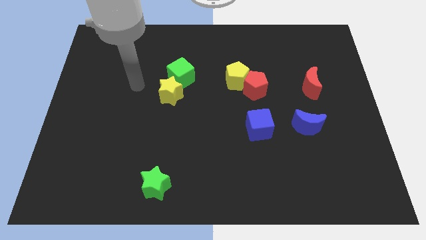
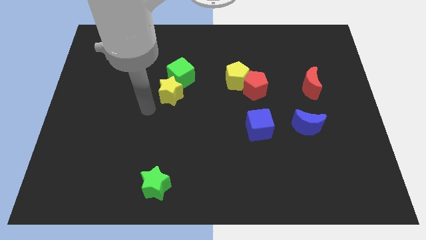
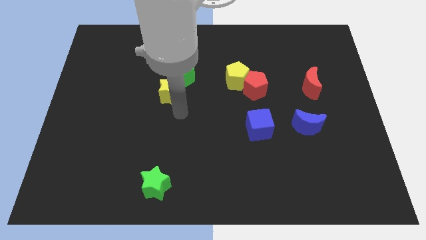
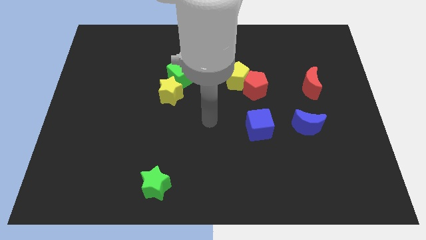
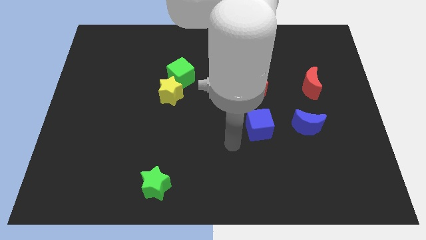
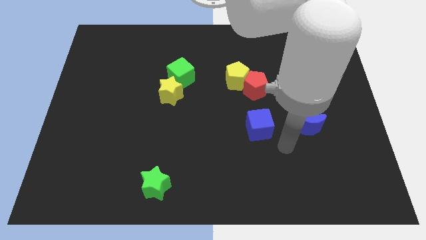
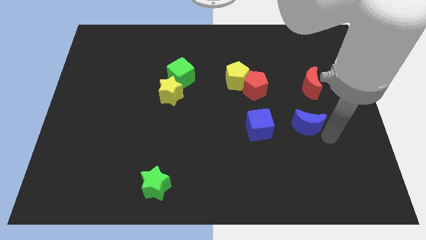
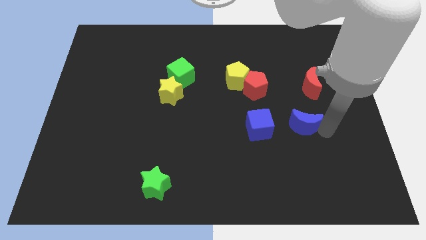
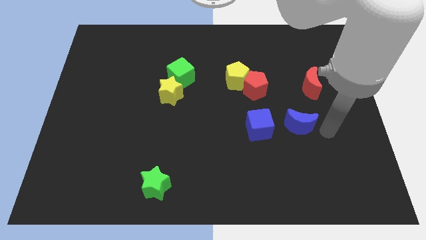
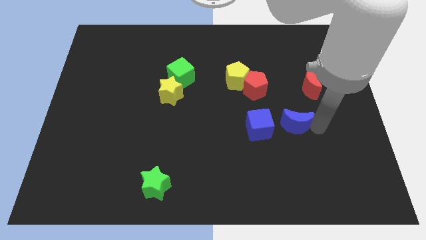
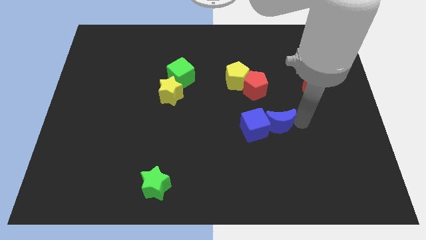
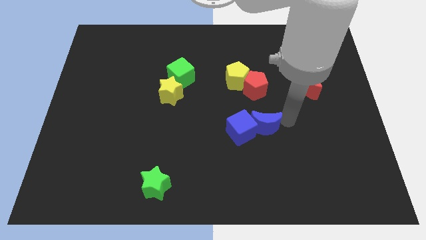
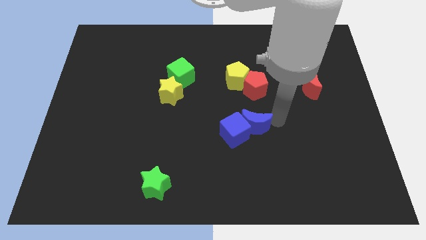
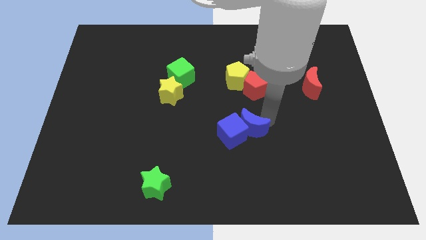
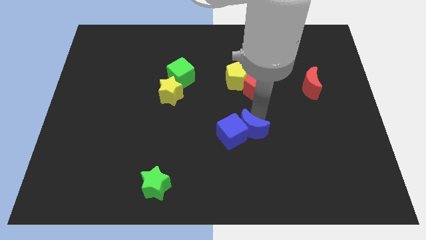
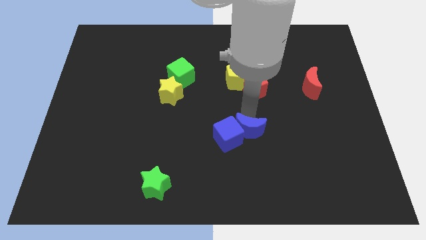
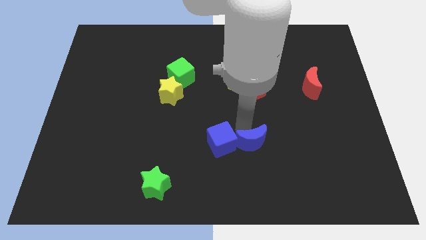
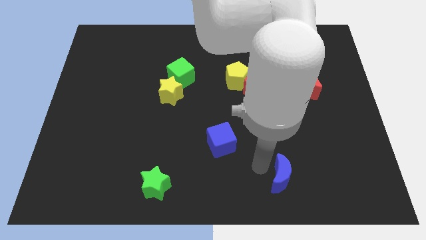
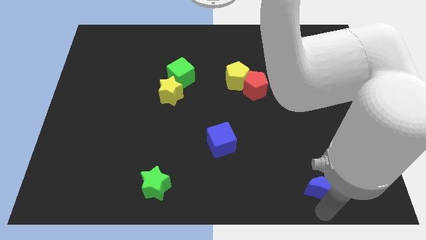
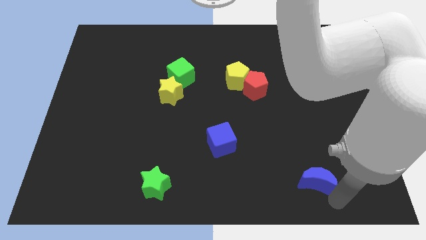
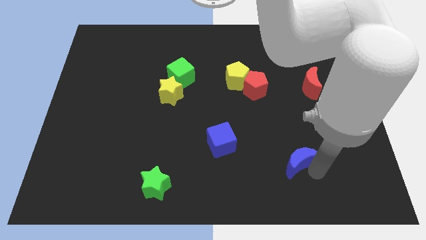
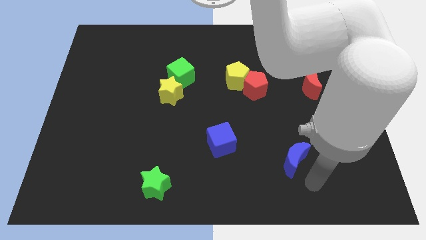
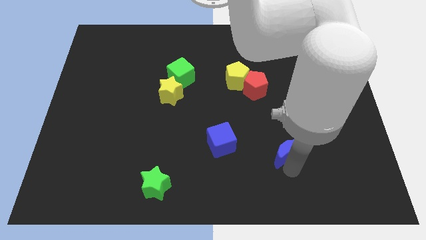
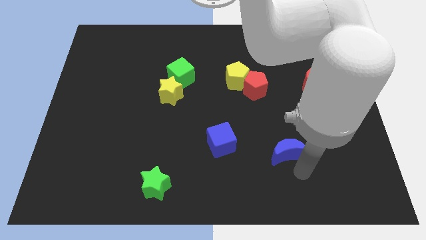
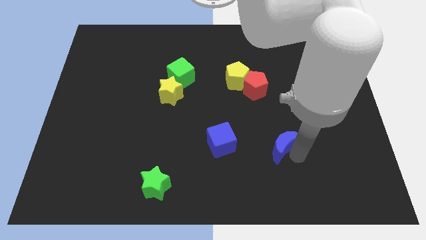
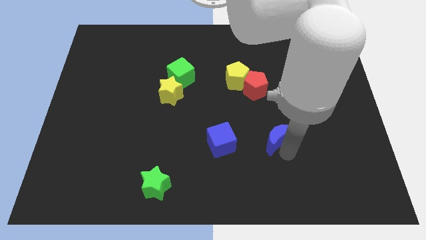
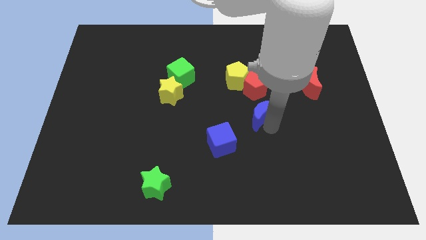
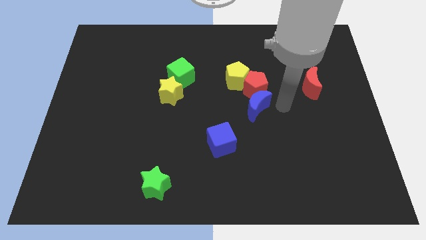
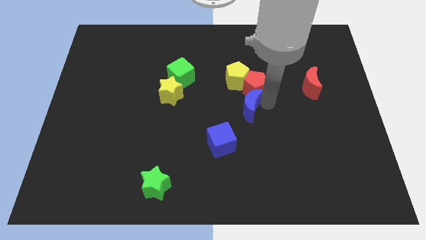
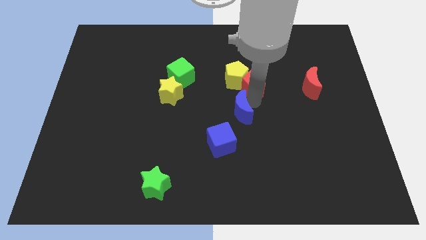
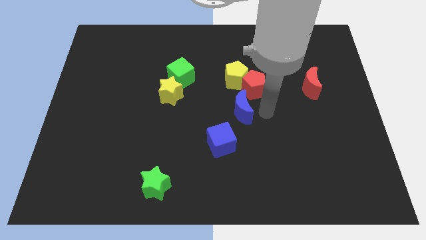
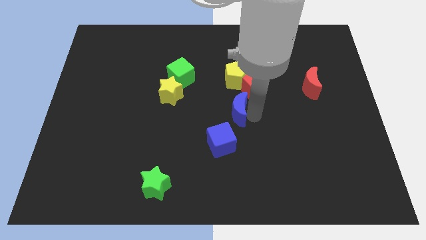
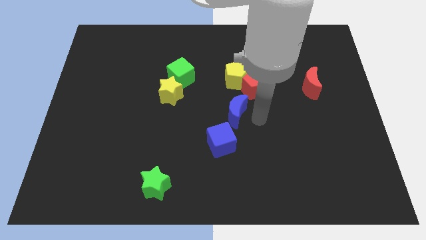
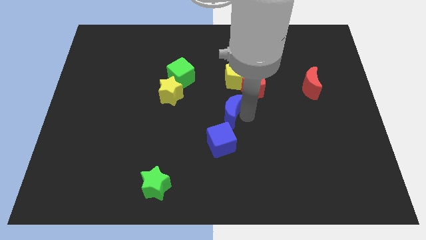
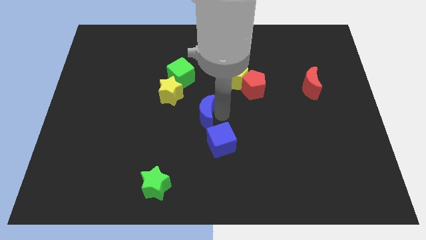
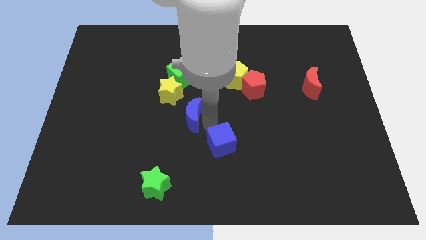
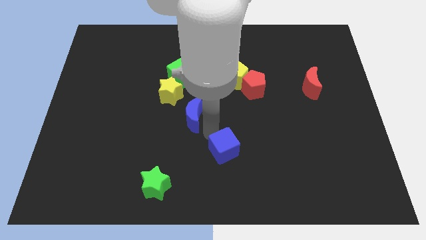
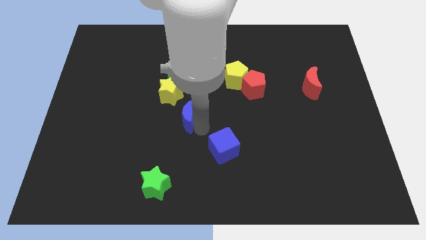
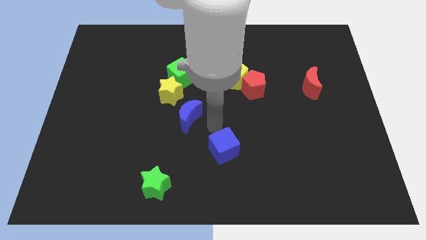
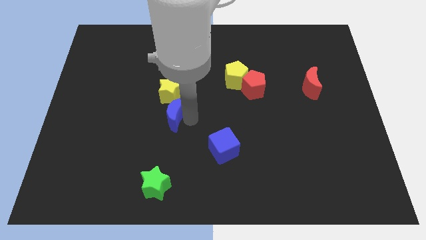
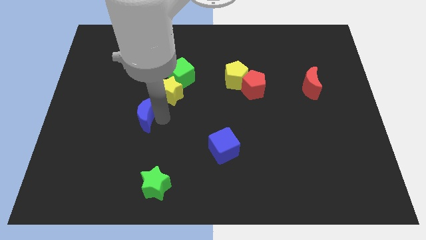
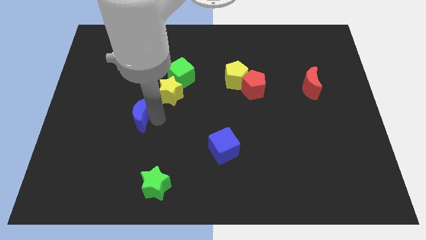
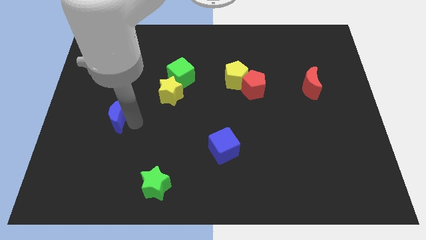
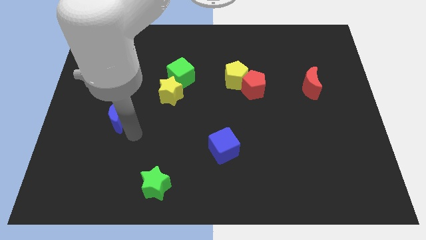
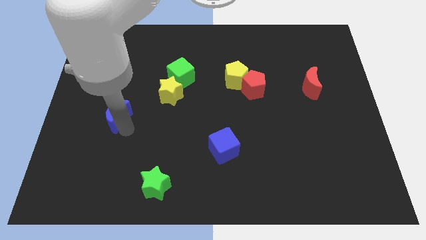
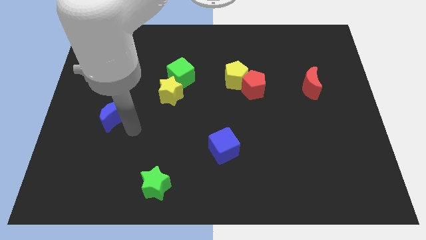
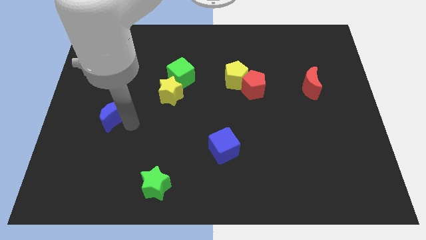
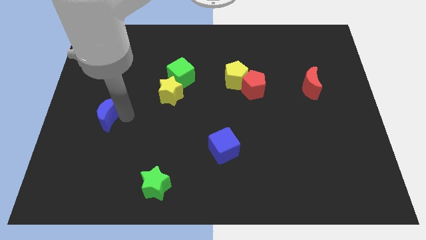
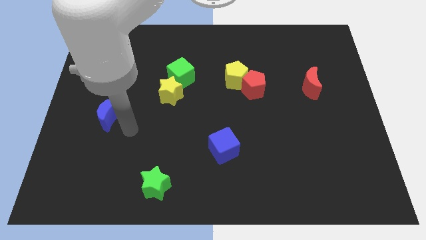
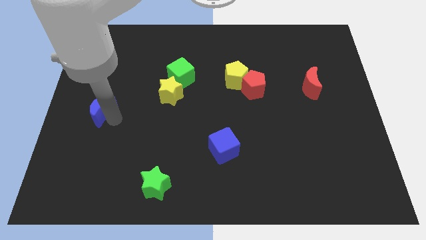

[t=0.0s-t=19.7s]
push the blue moon to the center left

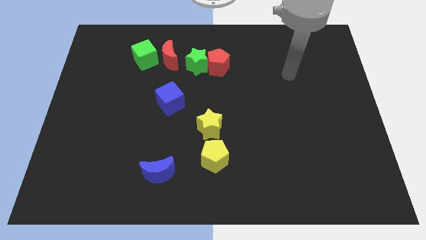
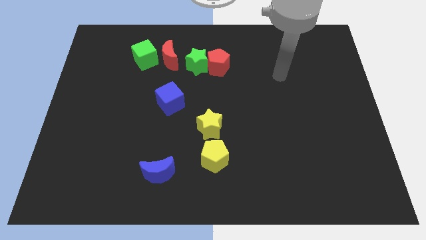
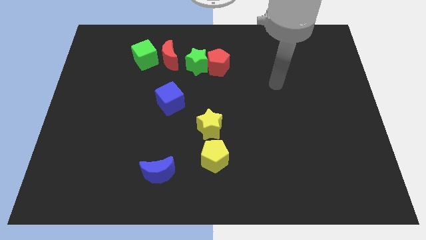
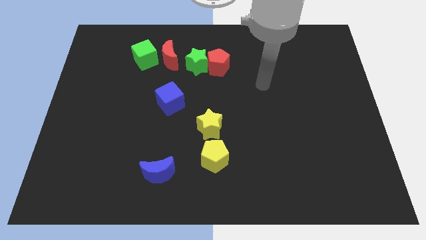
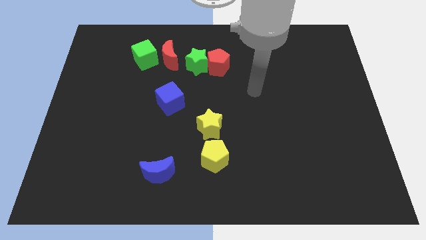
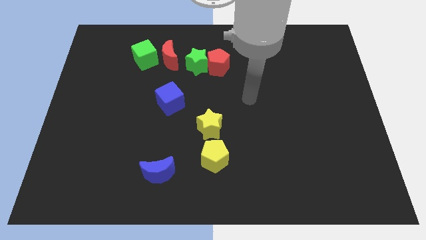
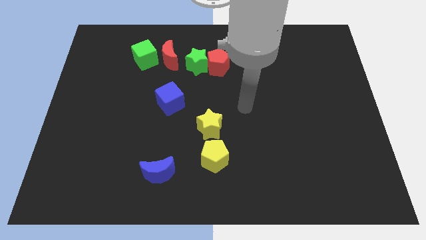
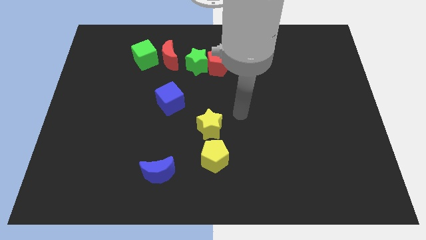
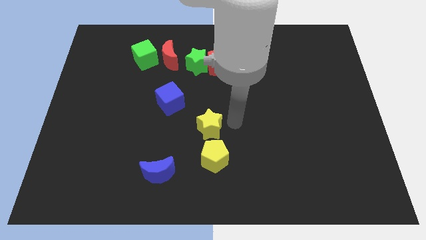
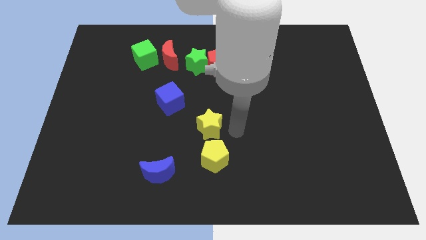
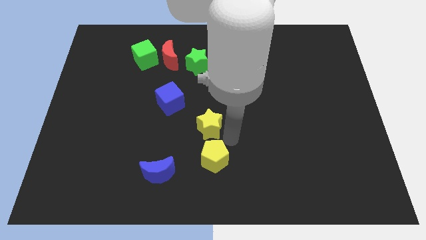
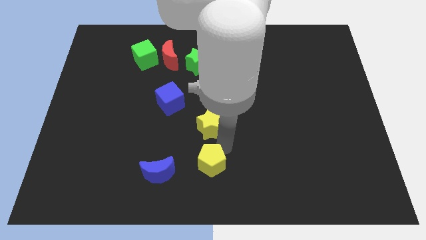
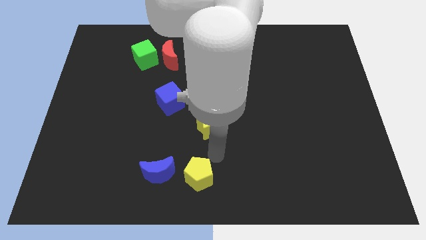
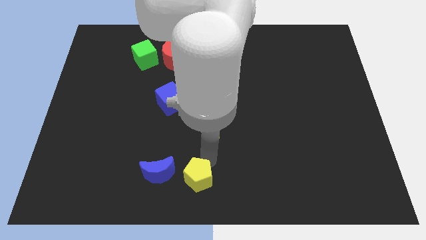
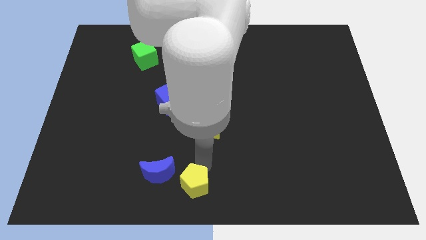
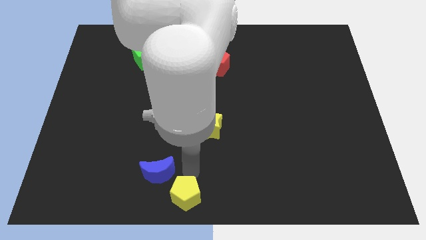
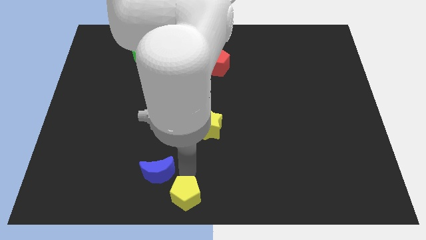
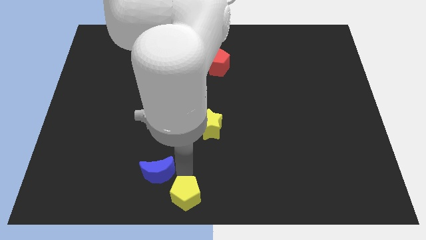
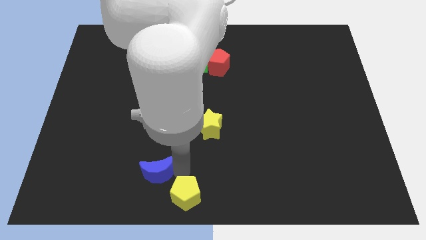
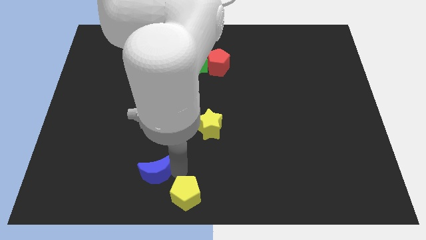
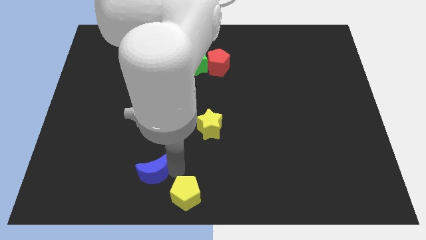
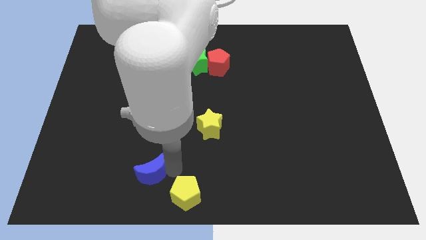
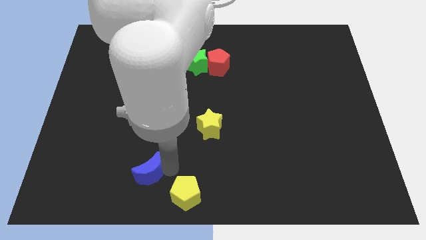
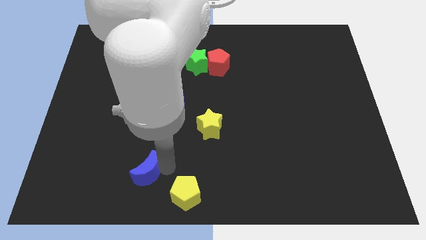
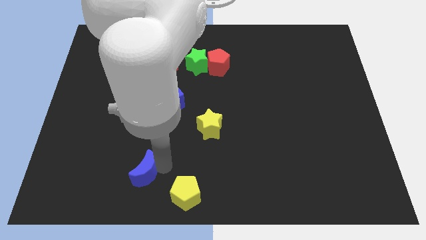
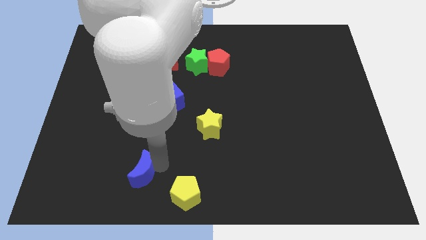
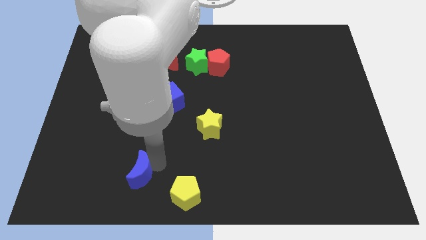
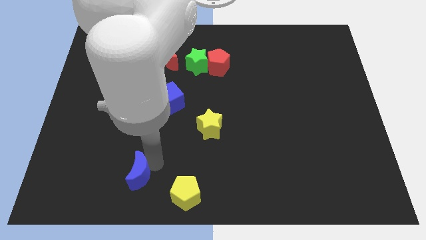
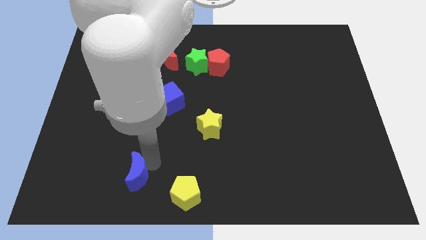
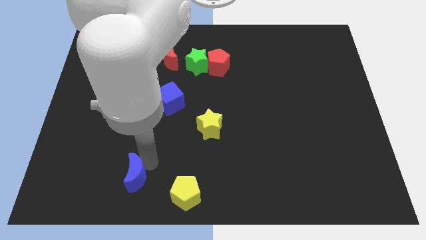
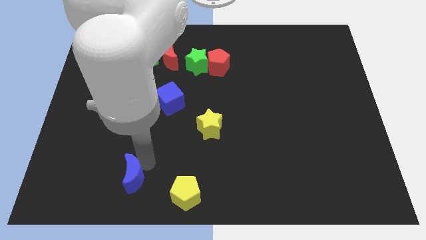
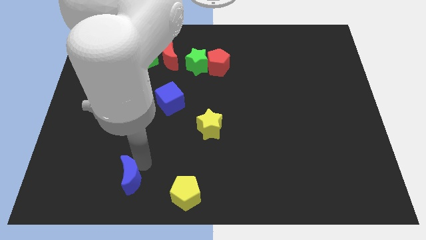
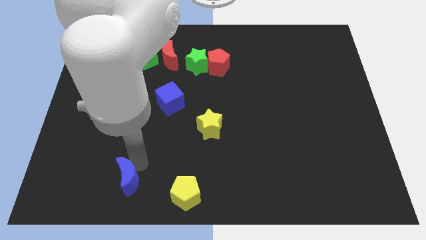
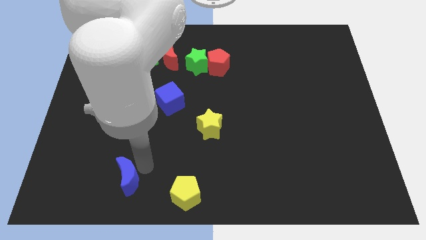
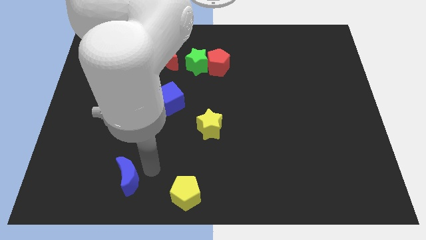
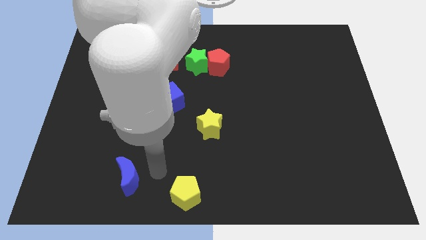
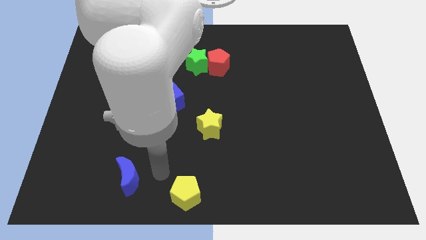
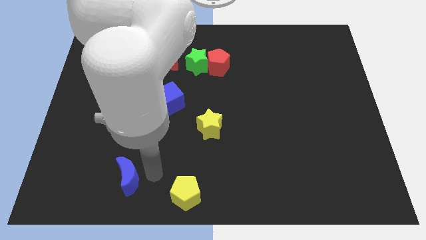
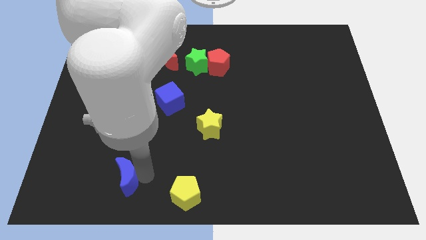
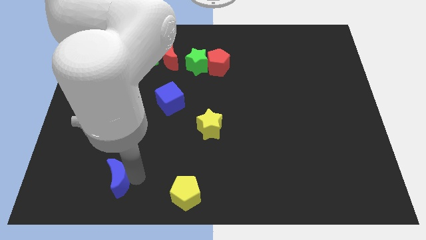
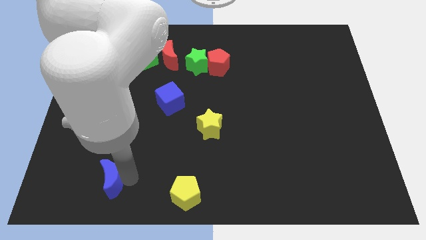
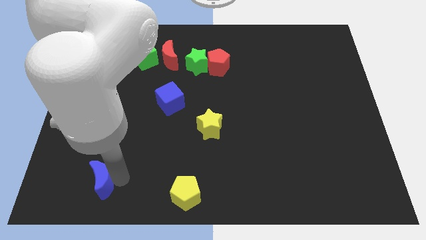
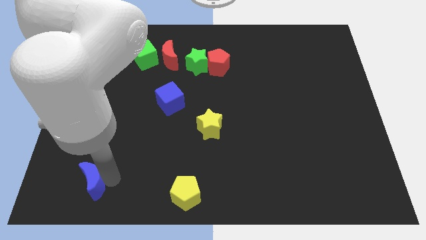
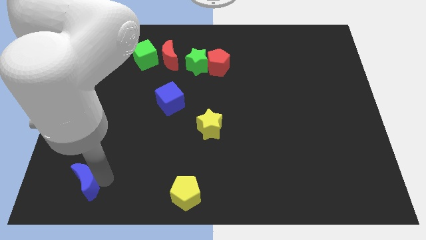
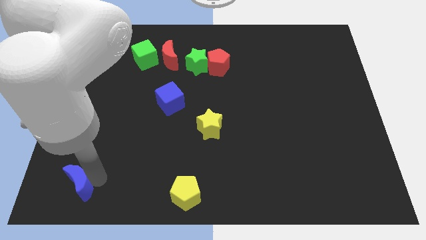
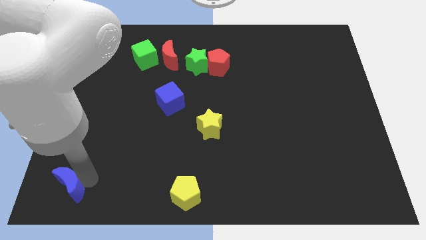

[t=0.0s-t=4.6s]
push the blue moon to the lower left corner
